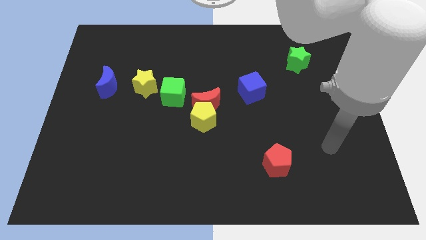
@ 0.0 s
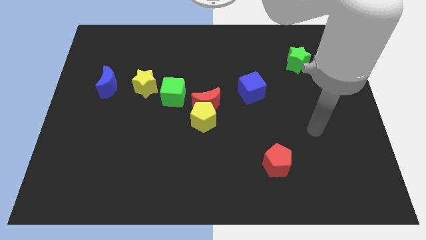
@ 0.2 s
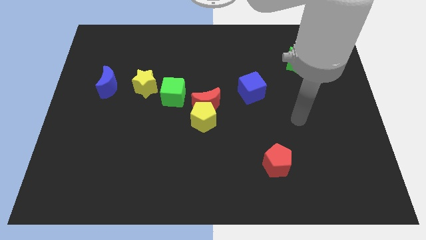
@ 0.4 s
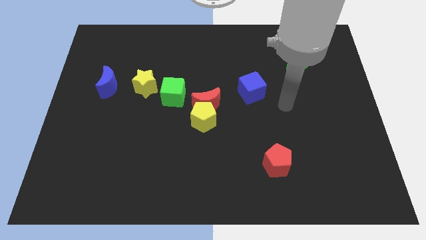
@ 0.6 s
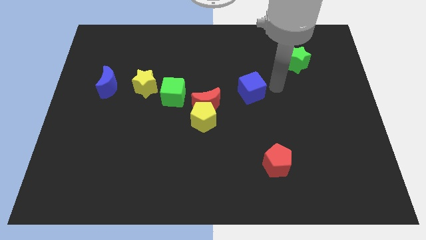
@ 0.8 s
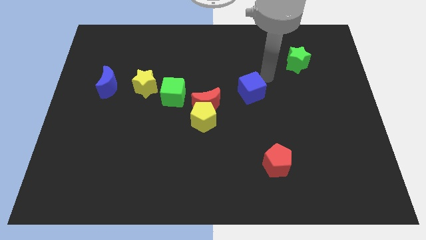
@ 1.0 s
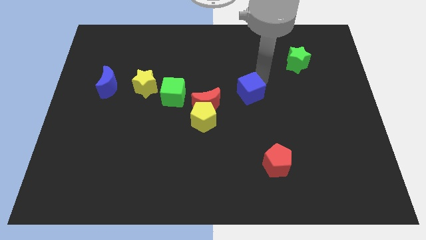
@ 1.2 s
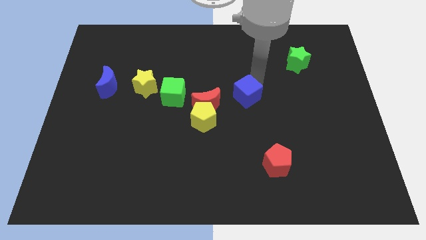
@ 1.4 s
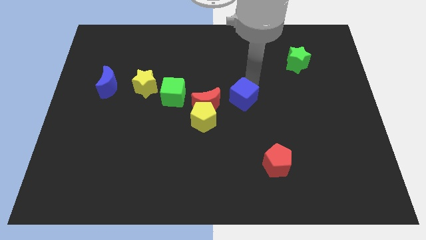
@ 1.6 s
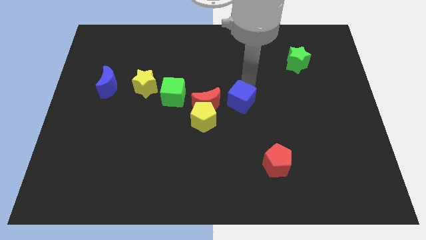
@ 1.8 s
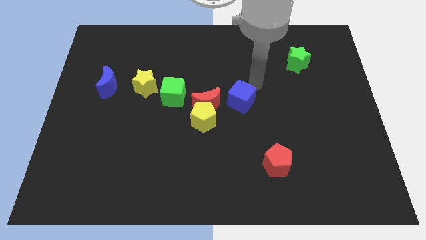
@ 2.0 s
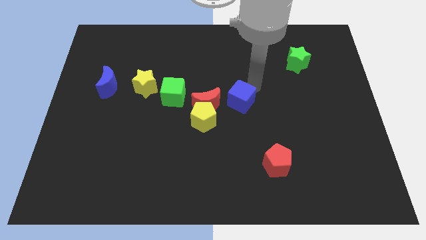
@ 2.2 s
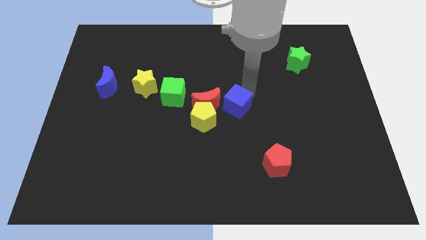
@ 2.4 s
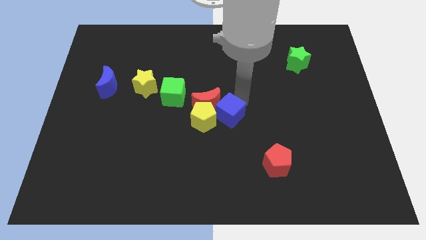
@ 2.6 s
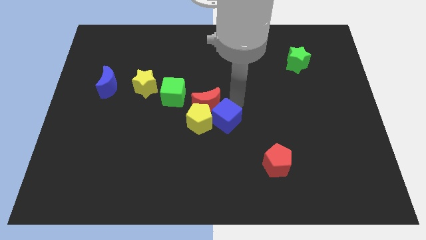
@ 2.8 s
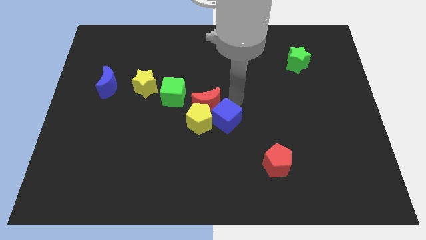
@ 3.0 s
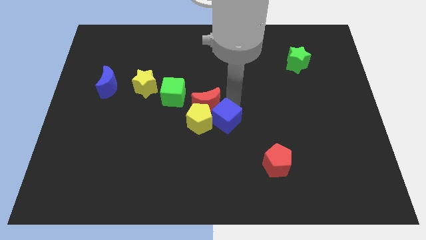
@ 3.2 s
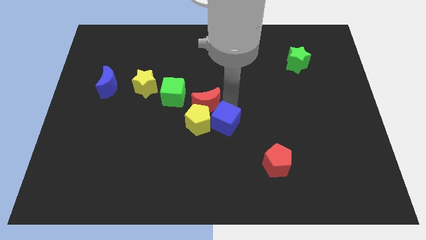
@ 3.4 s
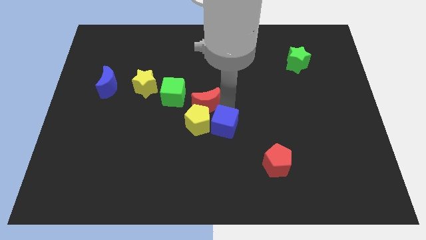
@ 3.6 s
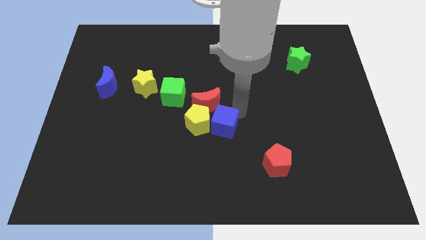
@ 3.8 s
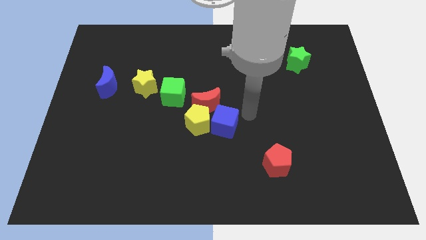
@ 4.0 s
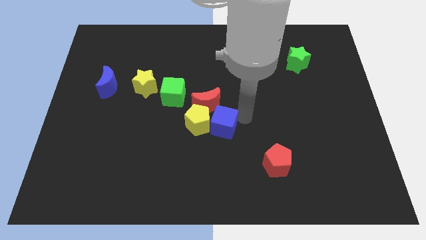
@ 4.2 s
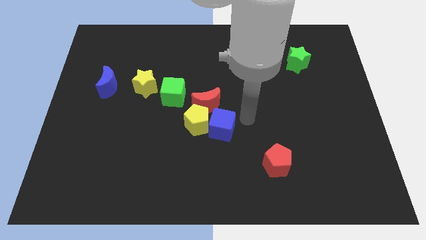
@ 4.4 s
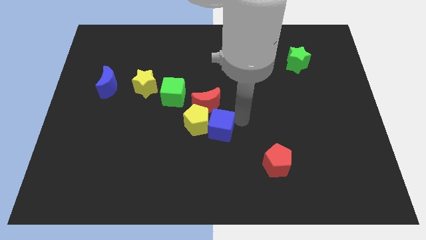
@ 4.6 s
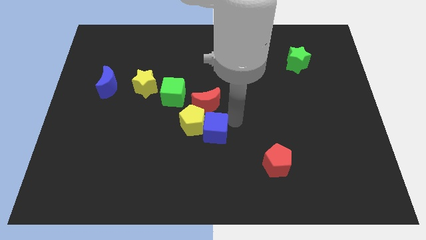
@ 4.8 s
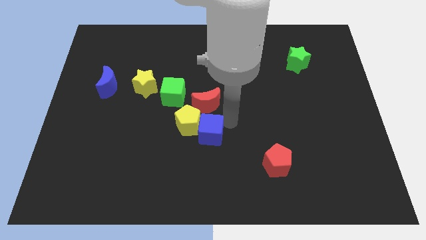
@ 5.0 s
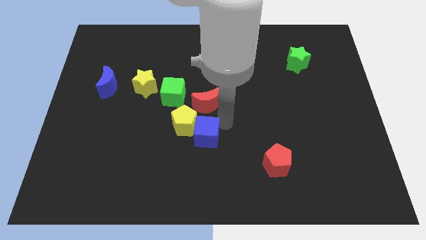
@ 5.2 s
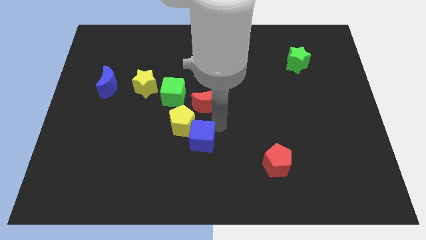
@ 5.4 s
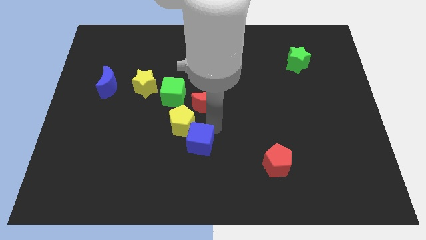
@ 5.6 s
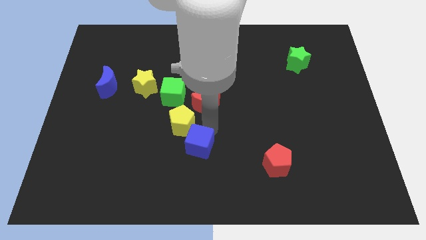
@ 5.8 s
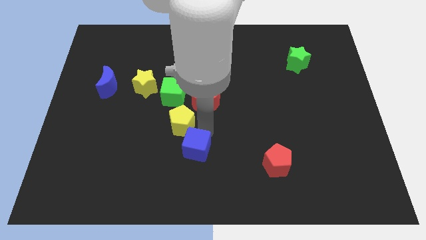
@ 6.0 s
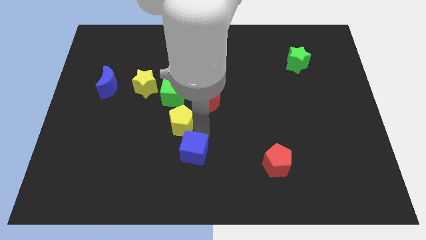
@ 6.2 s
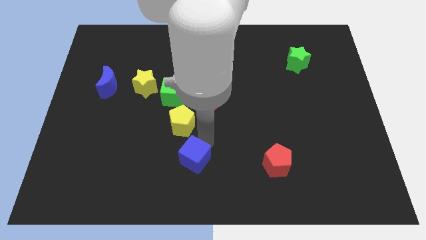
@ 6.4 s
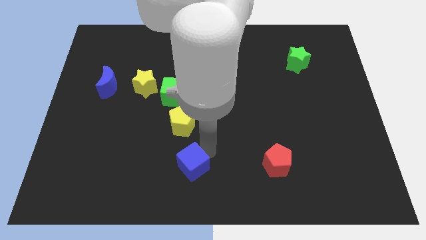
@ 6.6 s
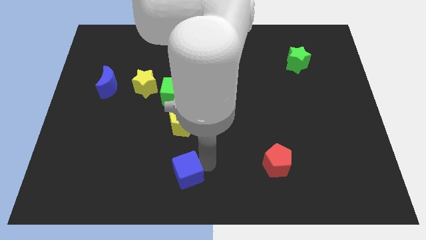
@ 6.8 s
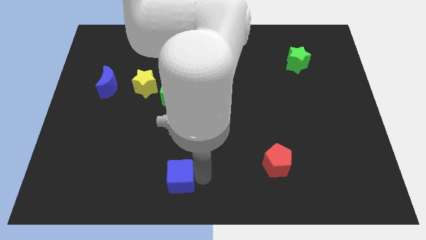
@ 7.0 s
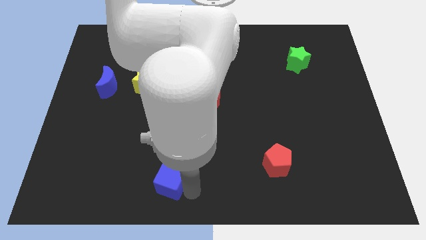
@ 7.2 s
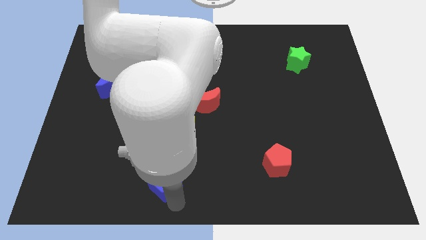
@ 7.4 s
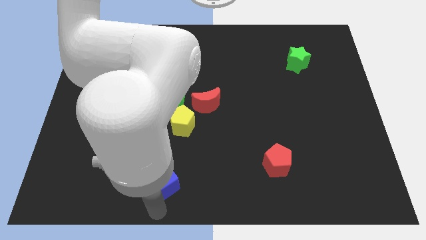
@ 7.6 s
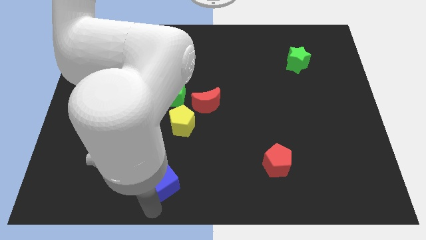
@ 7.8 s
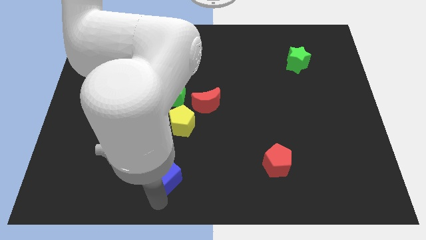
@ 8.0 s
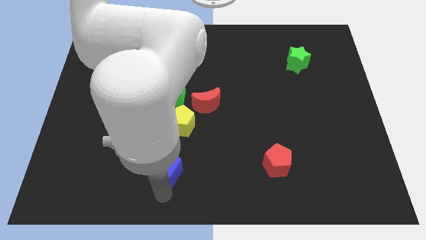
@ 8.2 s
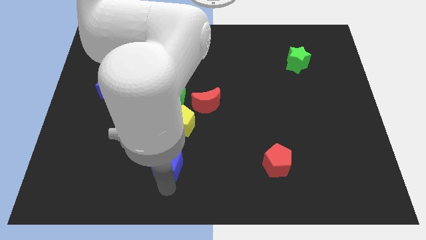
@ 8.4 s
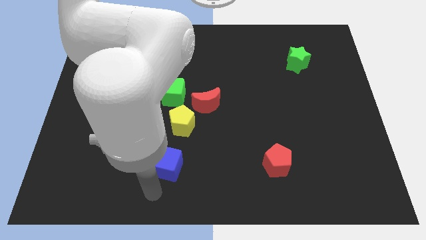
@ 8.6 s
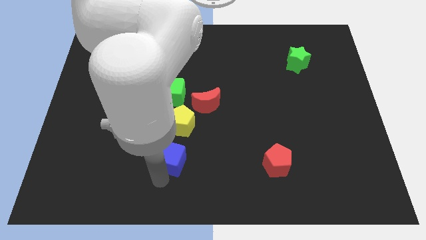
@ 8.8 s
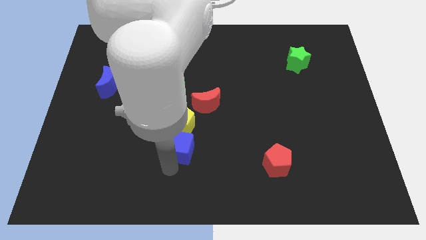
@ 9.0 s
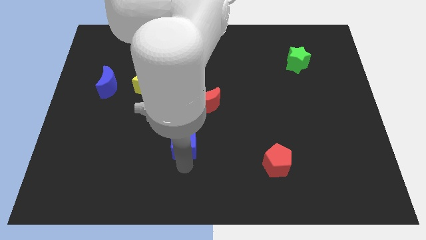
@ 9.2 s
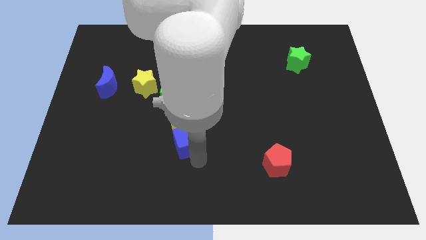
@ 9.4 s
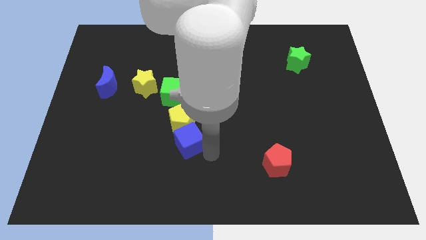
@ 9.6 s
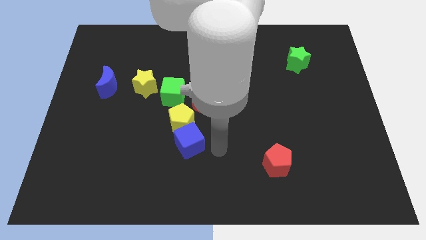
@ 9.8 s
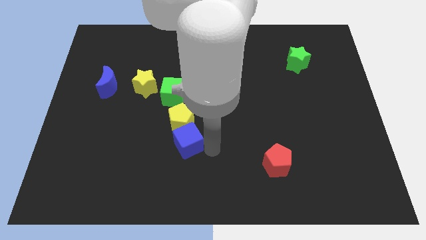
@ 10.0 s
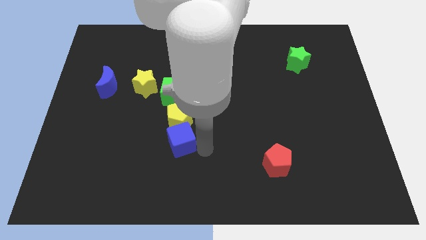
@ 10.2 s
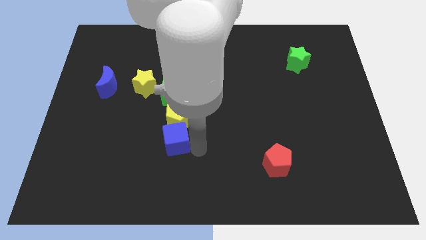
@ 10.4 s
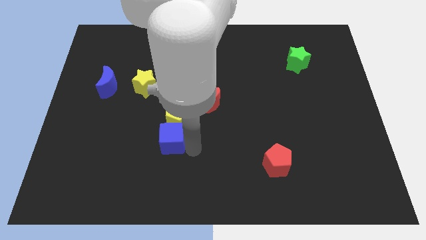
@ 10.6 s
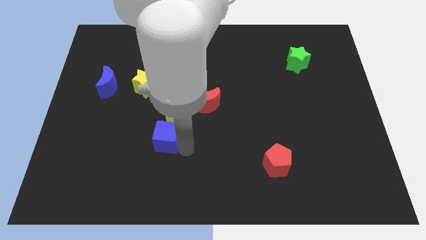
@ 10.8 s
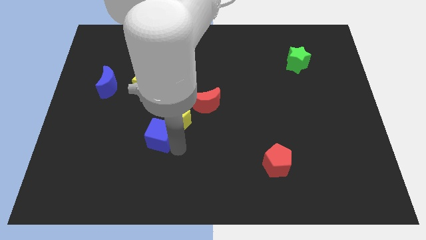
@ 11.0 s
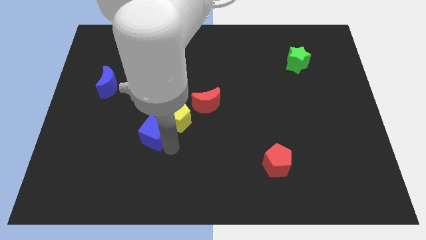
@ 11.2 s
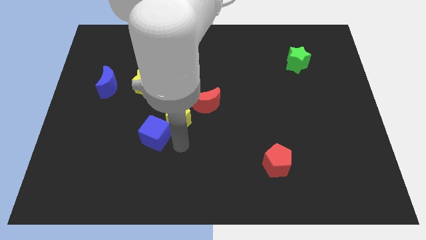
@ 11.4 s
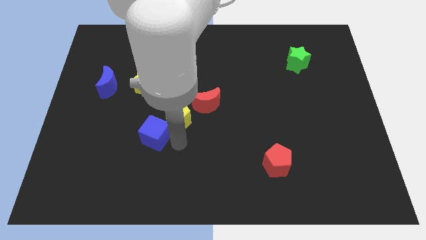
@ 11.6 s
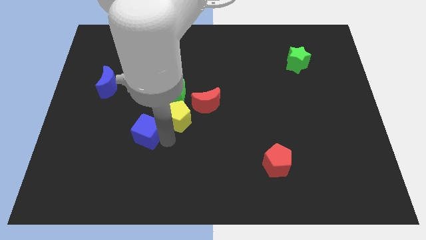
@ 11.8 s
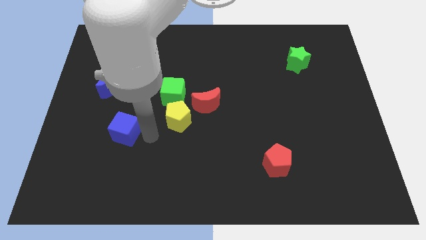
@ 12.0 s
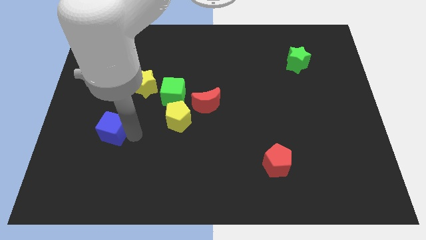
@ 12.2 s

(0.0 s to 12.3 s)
slide the blue cube to the bottom of the blue moon

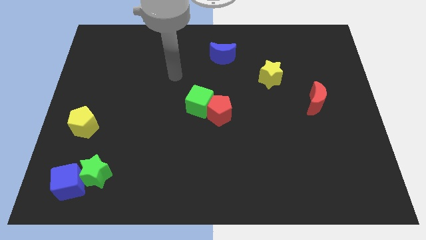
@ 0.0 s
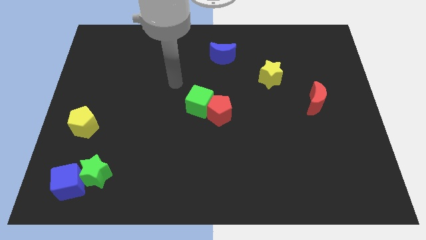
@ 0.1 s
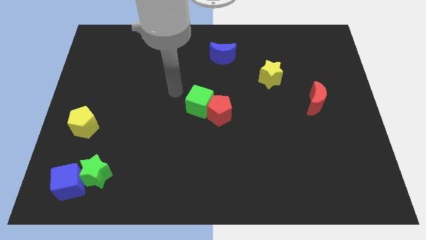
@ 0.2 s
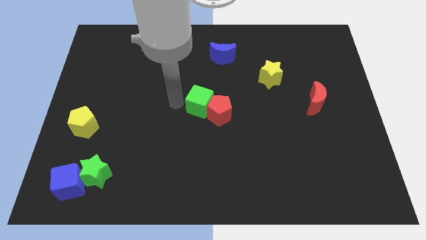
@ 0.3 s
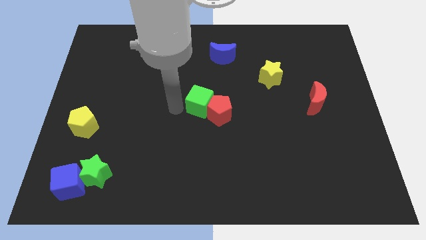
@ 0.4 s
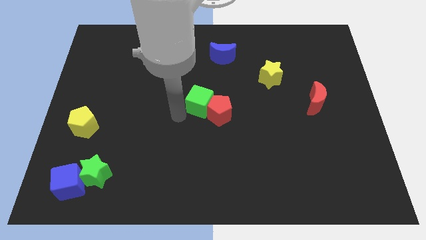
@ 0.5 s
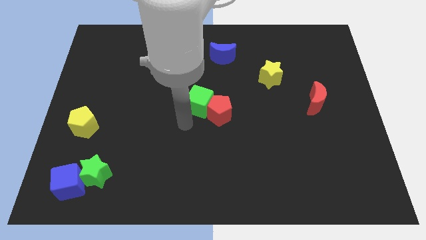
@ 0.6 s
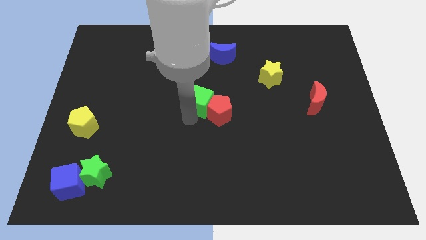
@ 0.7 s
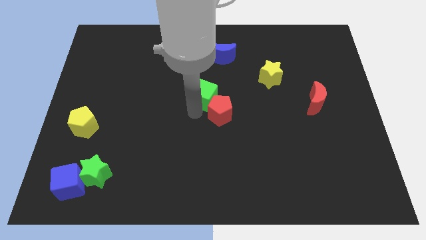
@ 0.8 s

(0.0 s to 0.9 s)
put the green cube to the top of the red pentagon

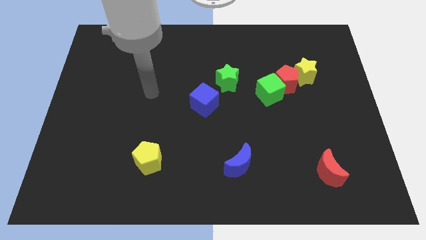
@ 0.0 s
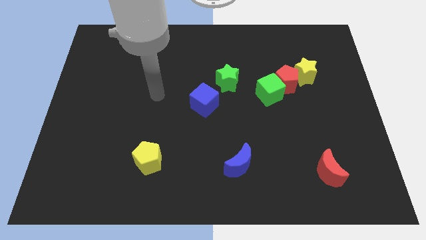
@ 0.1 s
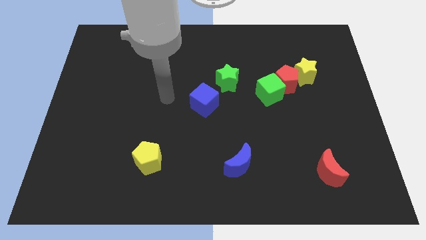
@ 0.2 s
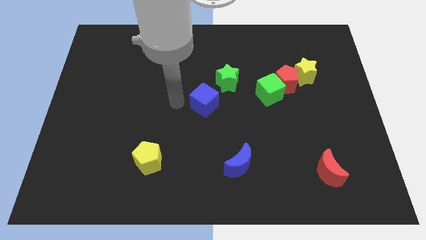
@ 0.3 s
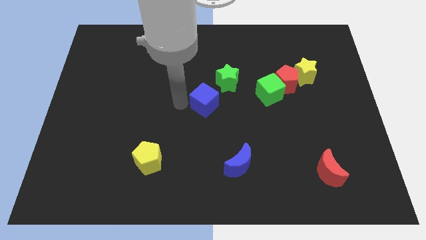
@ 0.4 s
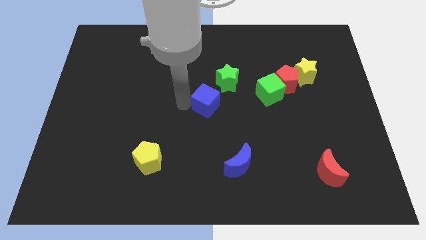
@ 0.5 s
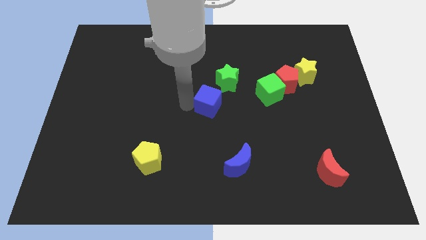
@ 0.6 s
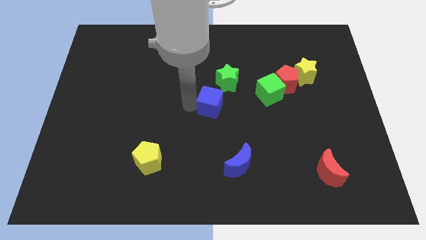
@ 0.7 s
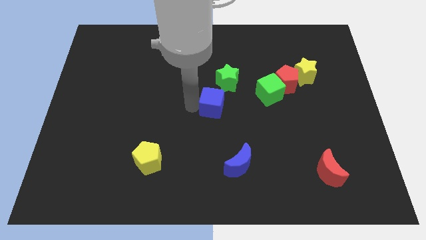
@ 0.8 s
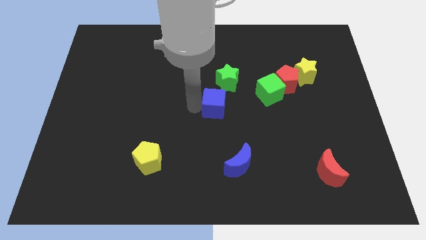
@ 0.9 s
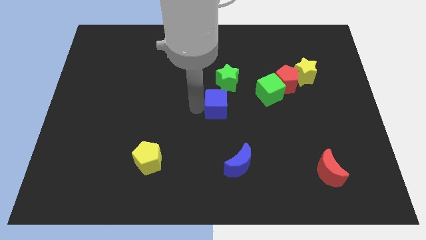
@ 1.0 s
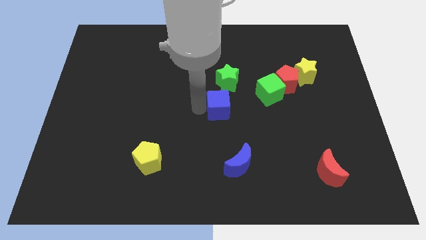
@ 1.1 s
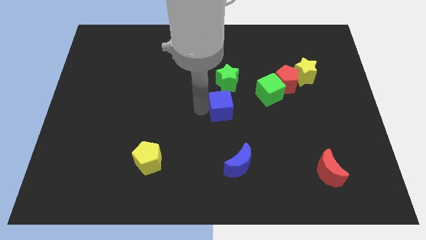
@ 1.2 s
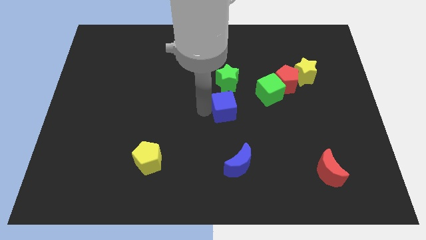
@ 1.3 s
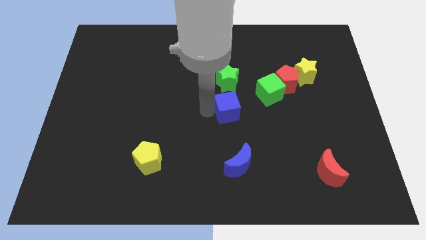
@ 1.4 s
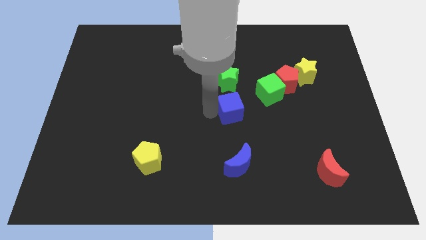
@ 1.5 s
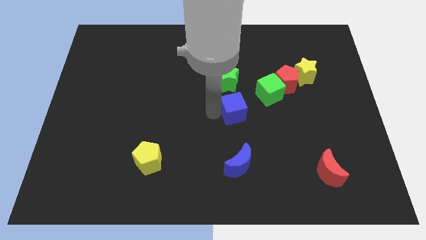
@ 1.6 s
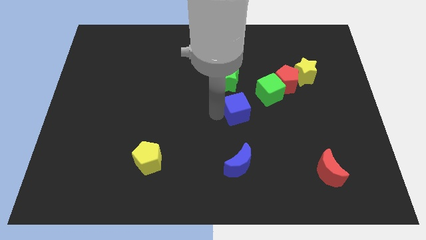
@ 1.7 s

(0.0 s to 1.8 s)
put the blue cube to the bottom right of the green star
